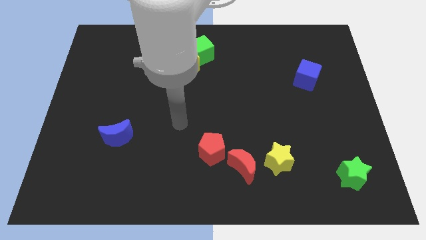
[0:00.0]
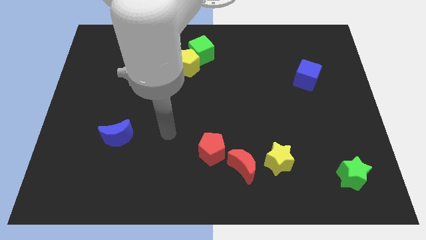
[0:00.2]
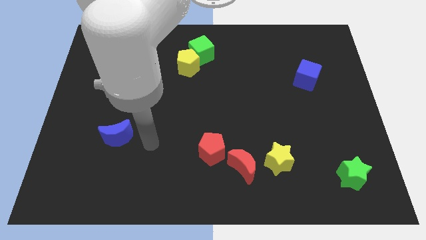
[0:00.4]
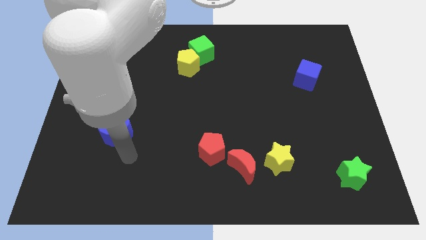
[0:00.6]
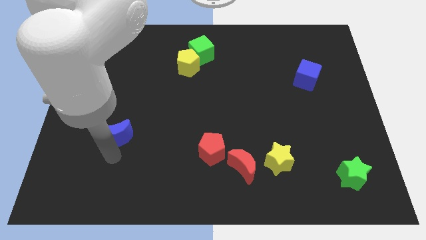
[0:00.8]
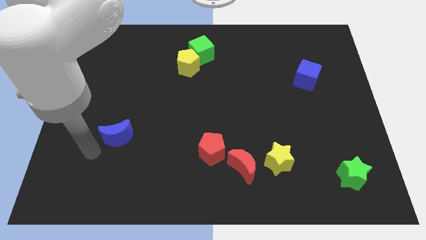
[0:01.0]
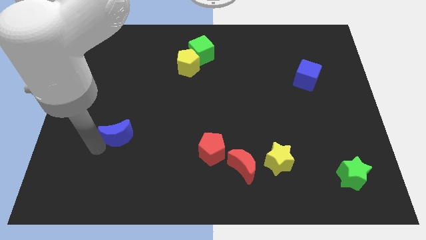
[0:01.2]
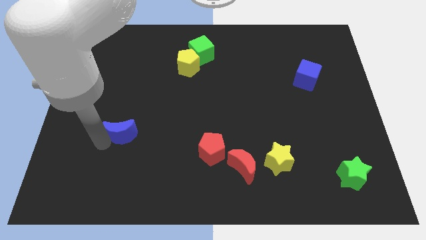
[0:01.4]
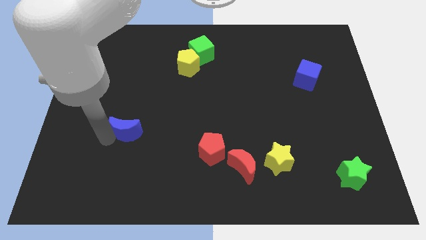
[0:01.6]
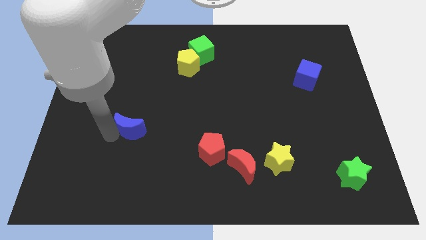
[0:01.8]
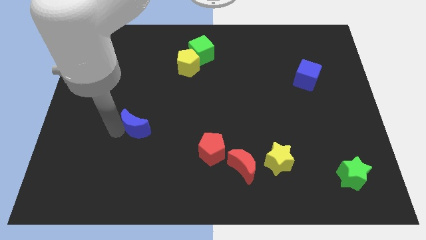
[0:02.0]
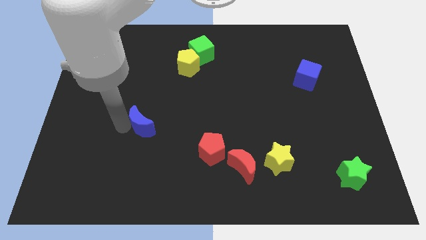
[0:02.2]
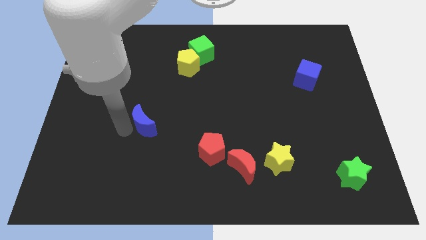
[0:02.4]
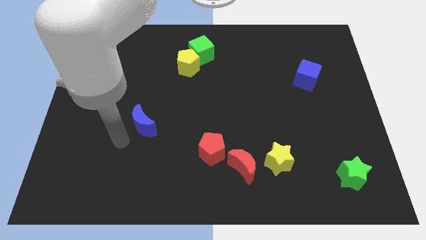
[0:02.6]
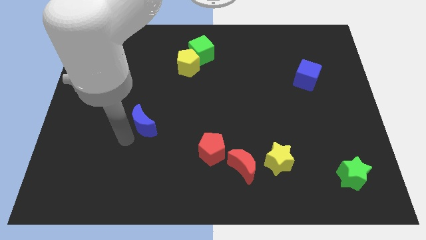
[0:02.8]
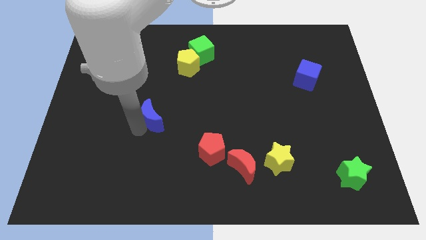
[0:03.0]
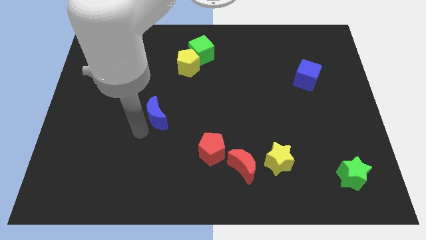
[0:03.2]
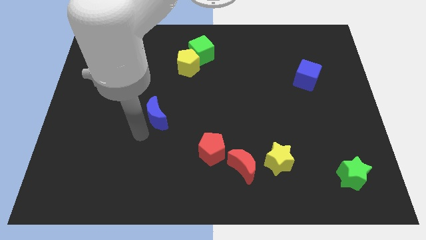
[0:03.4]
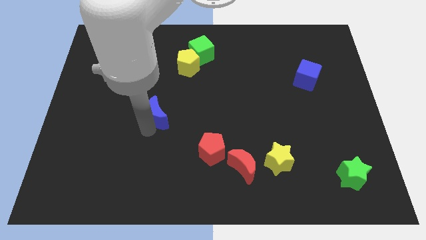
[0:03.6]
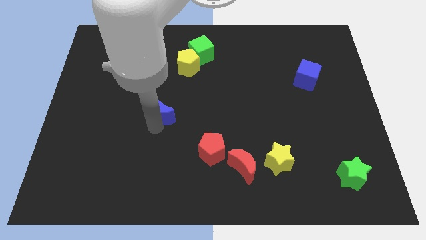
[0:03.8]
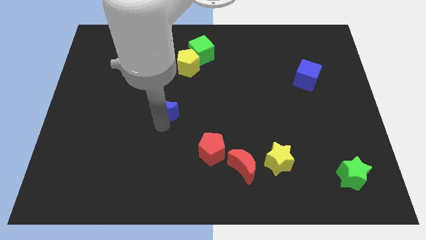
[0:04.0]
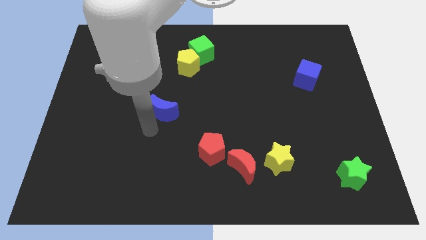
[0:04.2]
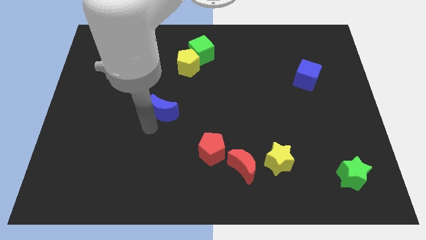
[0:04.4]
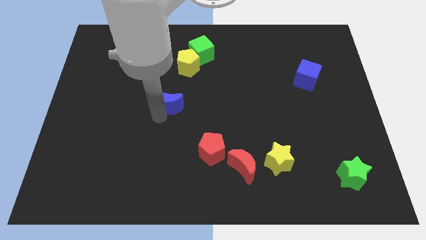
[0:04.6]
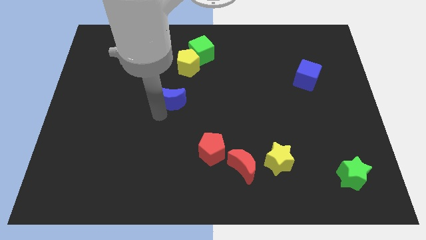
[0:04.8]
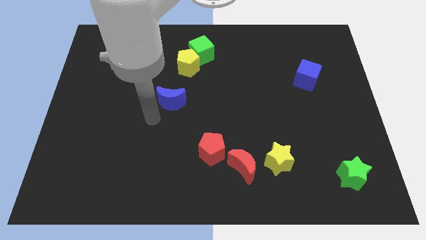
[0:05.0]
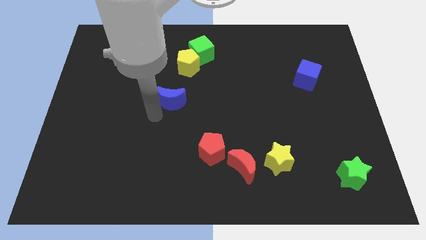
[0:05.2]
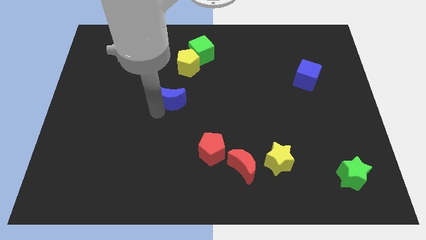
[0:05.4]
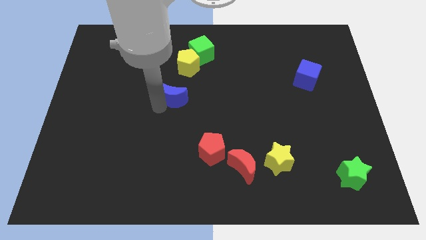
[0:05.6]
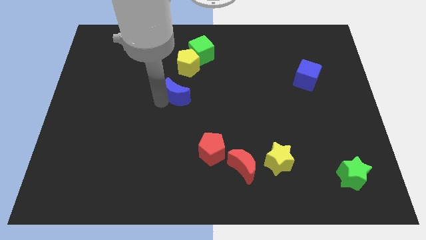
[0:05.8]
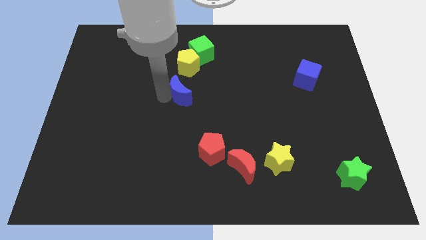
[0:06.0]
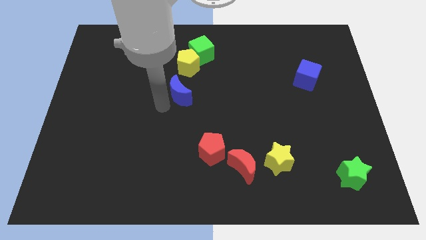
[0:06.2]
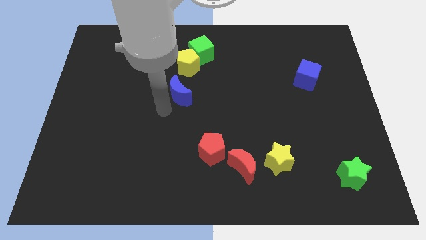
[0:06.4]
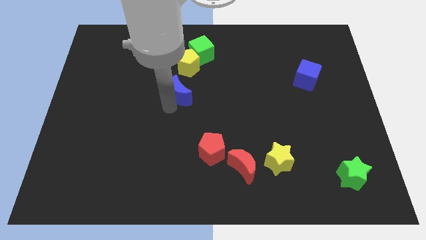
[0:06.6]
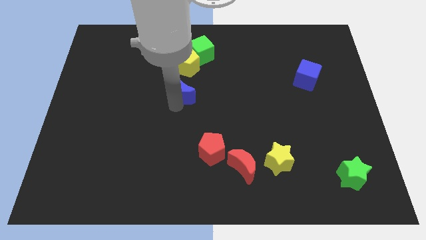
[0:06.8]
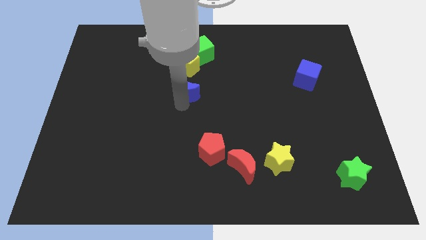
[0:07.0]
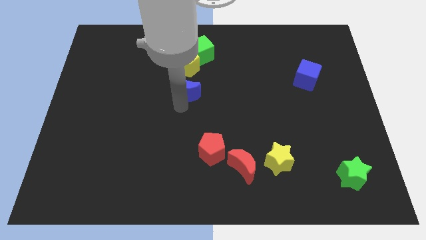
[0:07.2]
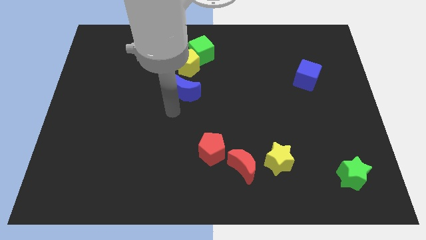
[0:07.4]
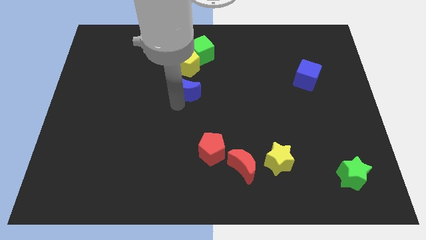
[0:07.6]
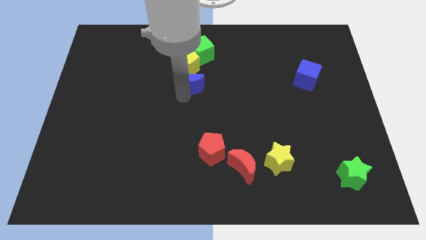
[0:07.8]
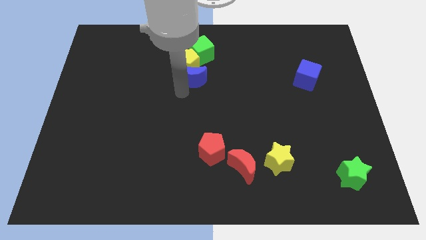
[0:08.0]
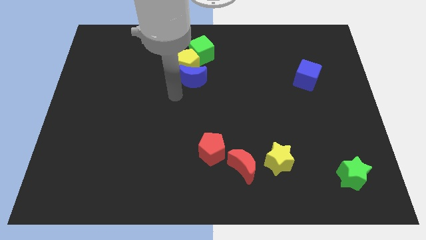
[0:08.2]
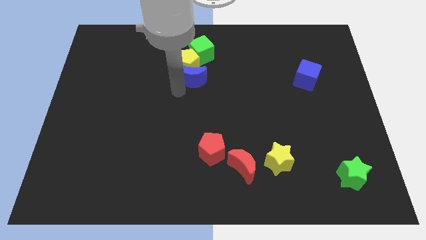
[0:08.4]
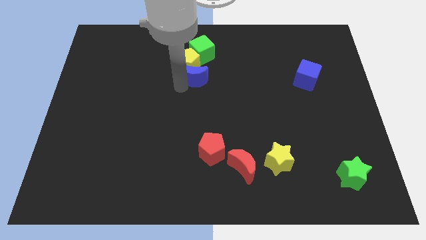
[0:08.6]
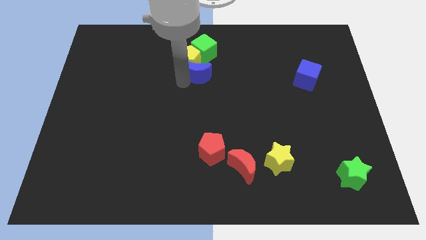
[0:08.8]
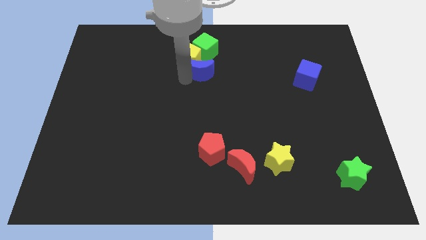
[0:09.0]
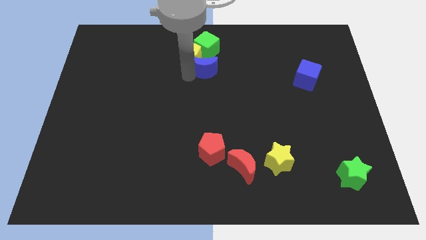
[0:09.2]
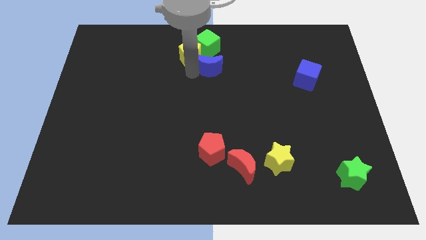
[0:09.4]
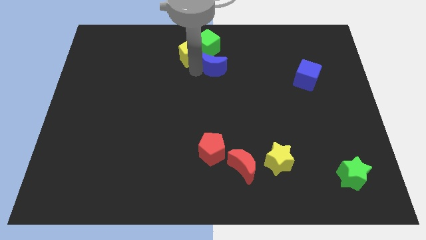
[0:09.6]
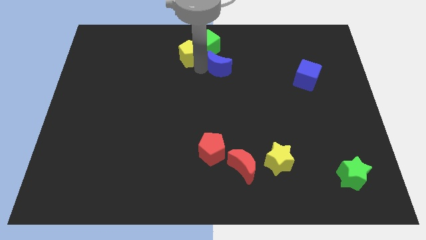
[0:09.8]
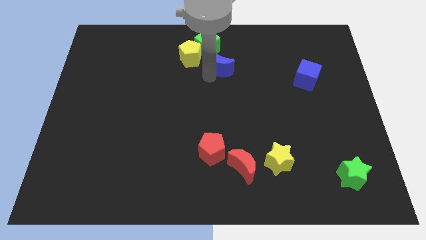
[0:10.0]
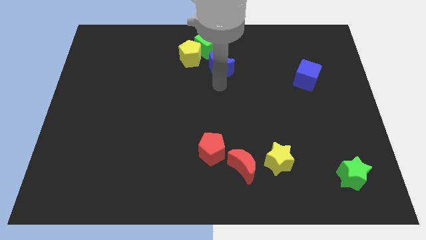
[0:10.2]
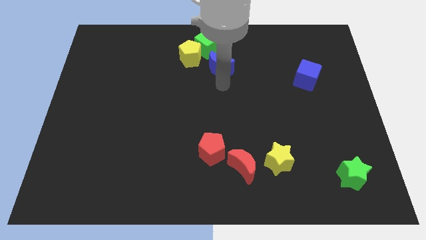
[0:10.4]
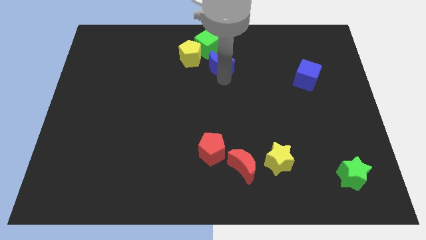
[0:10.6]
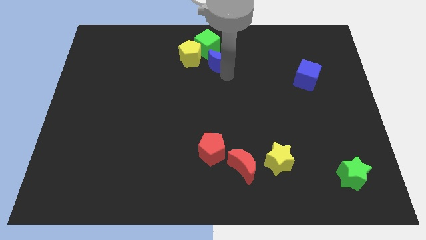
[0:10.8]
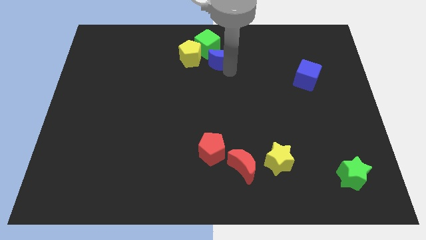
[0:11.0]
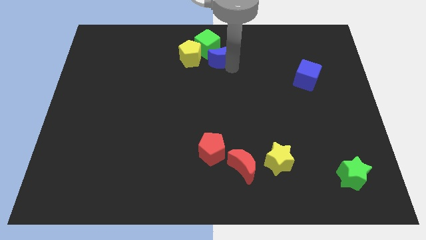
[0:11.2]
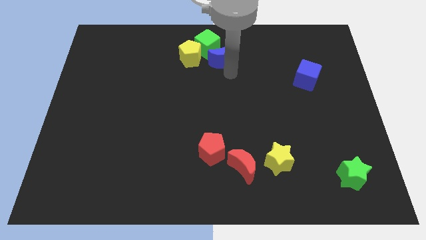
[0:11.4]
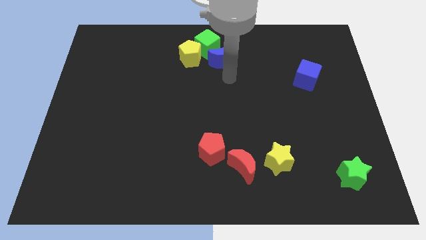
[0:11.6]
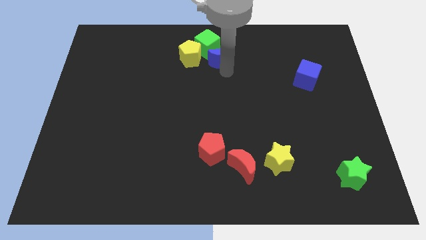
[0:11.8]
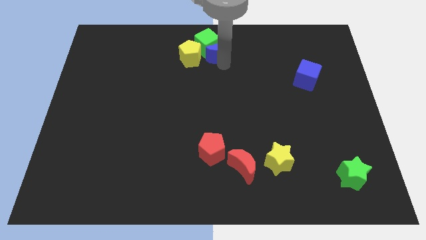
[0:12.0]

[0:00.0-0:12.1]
push the blue moon to the top
